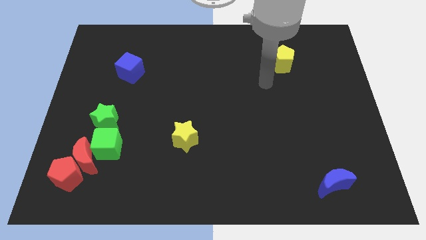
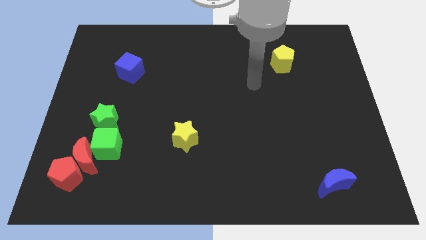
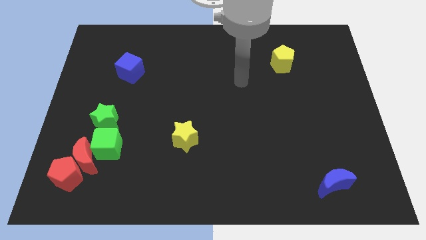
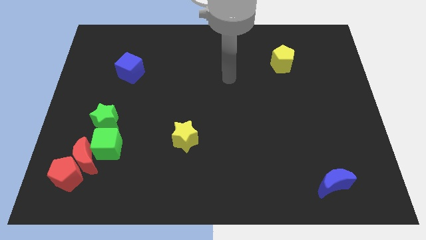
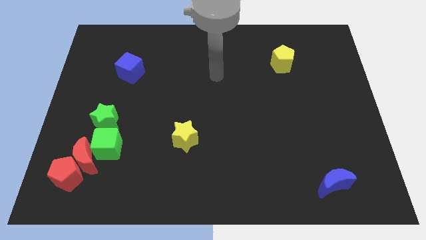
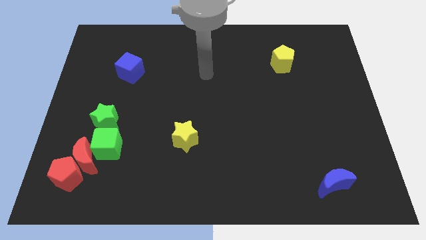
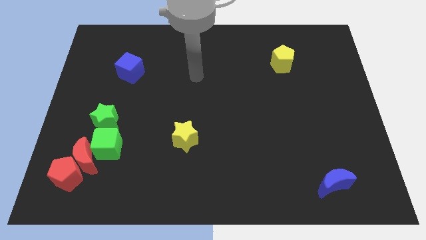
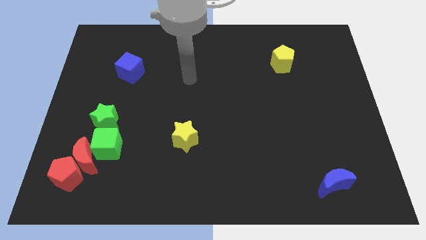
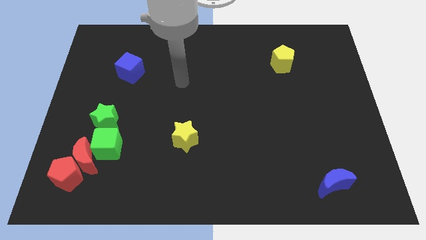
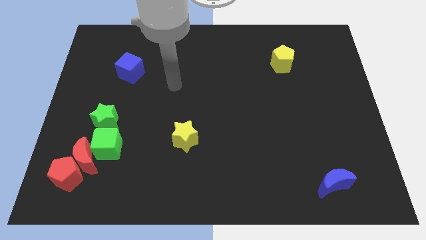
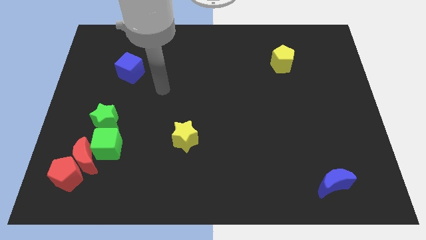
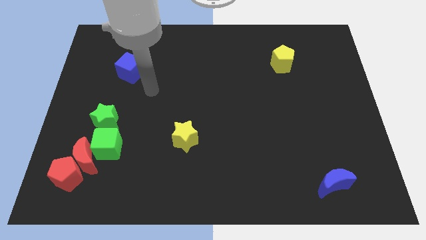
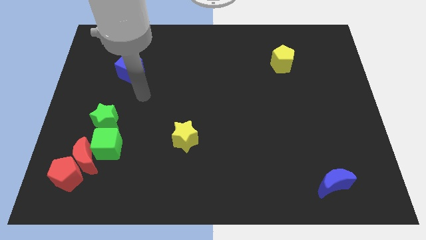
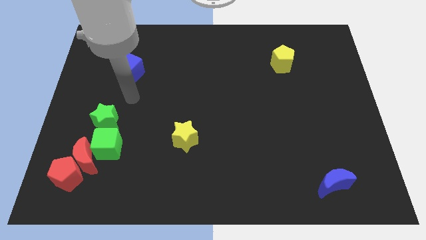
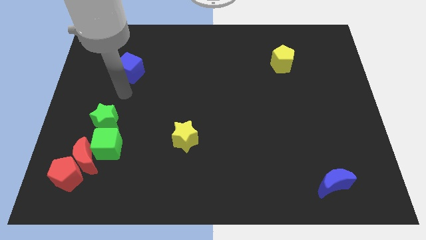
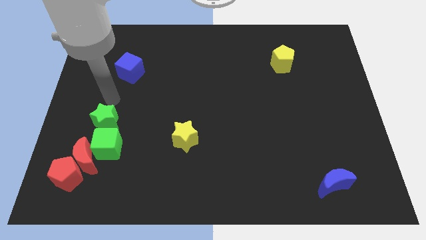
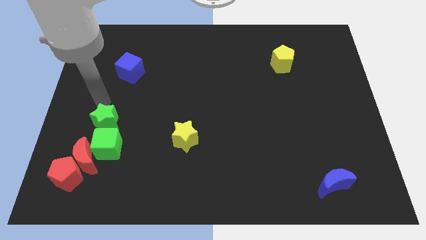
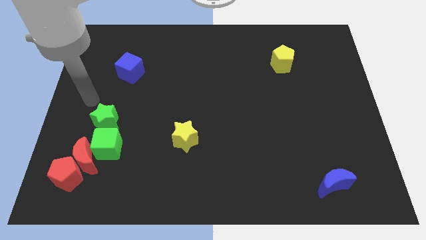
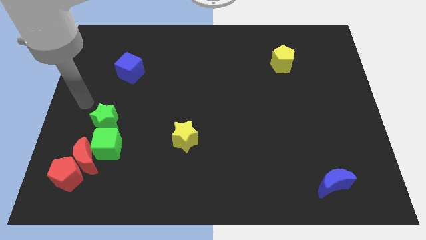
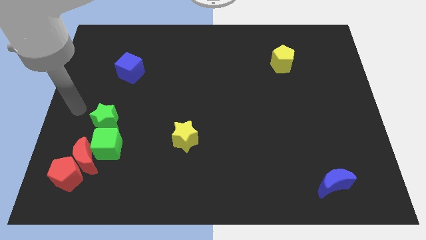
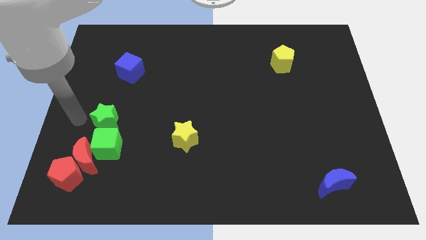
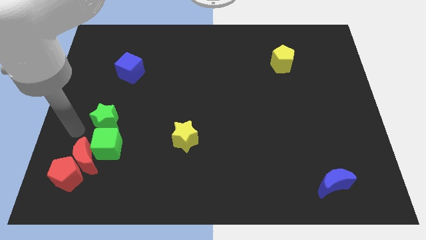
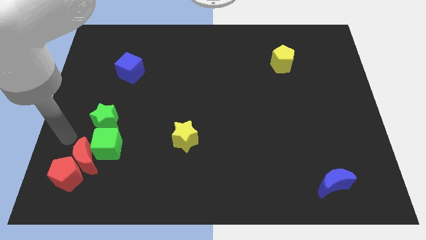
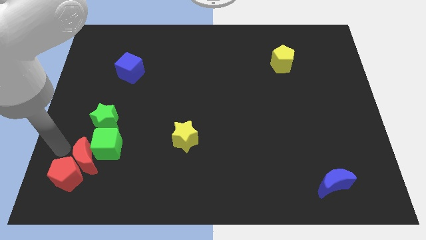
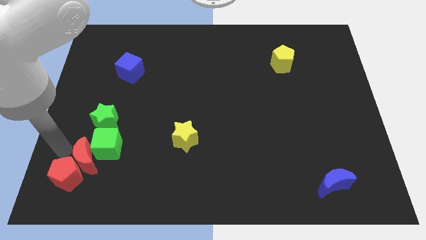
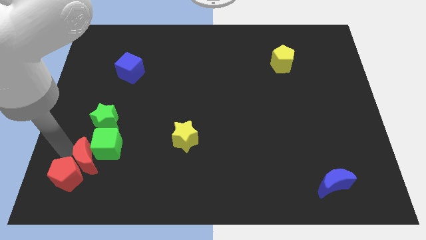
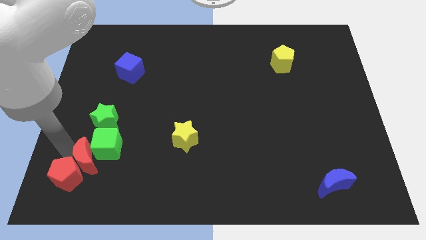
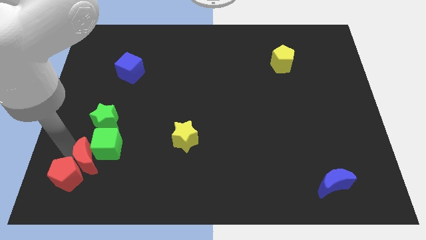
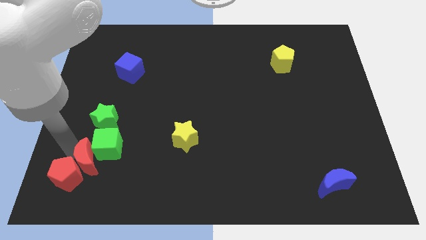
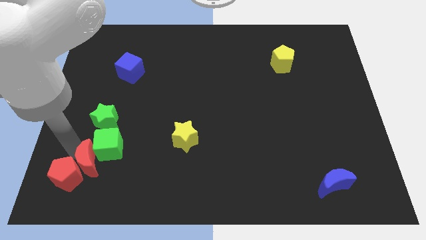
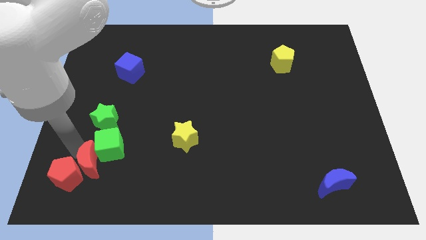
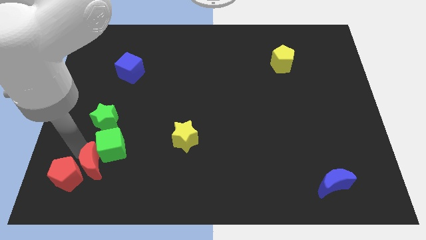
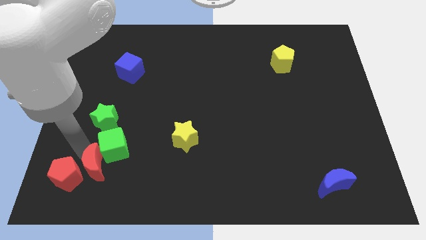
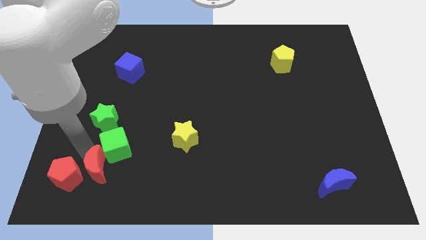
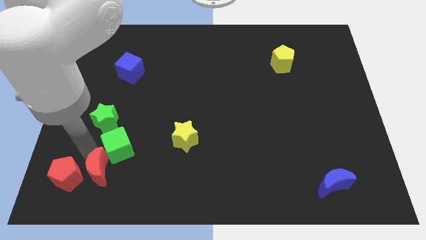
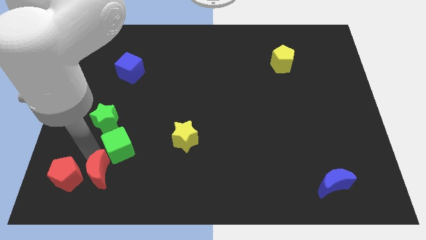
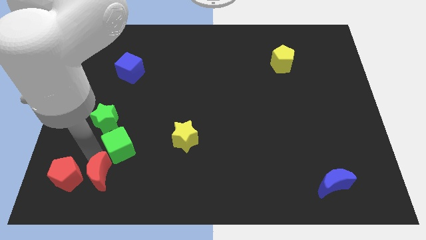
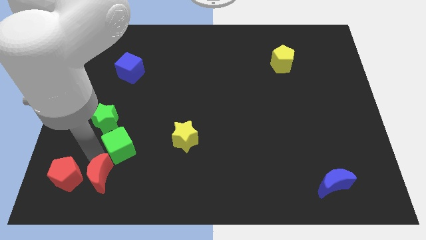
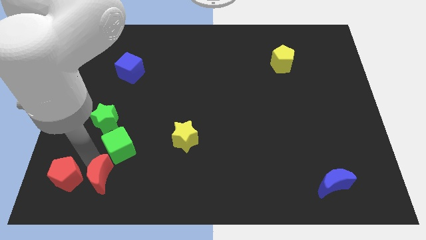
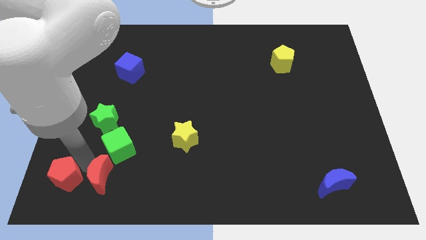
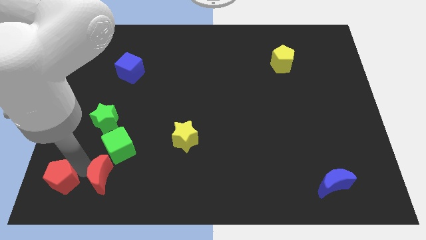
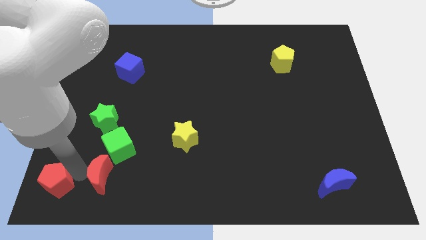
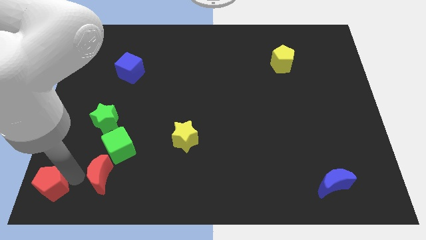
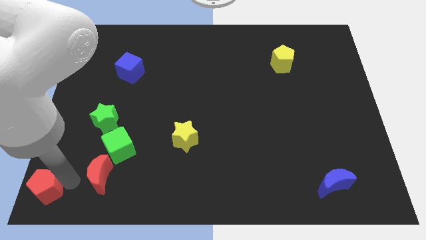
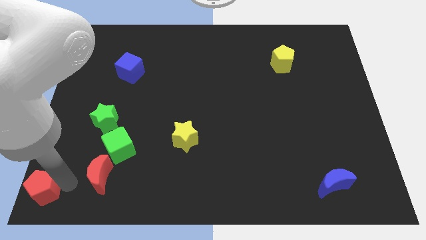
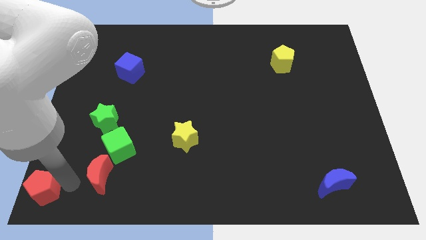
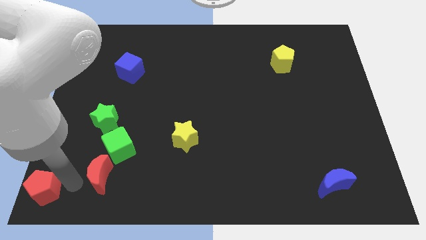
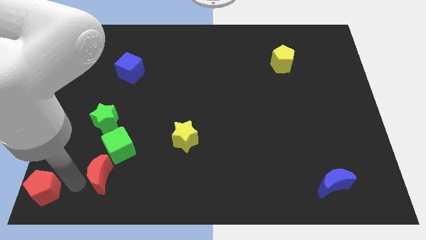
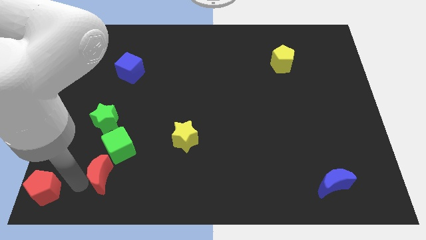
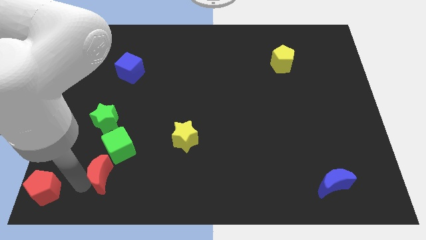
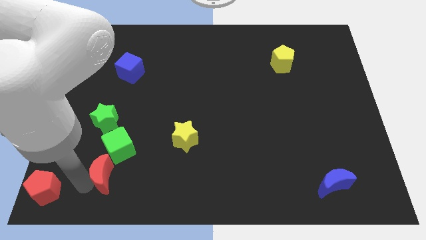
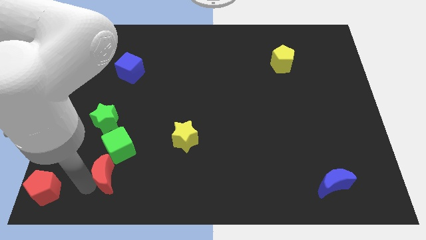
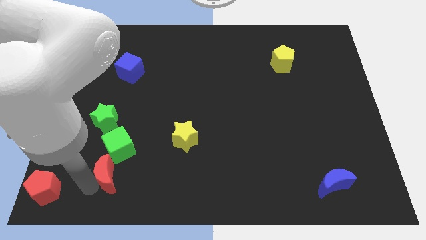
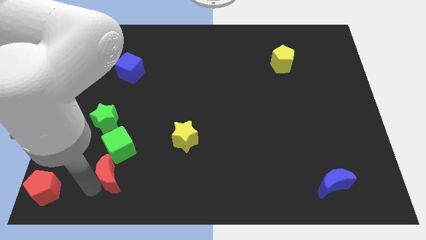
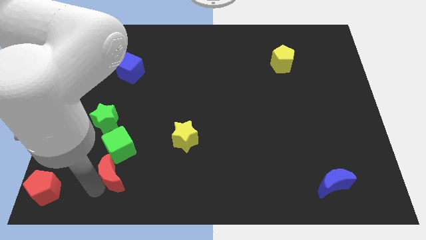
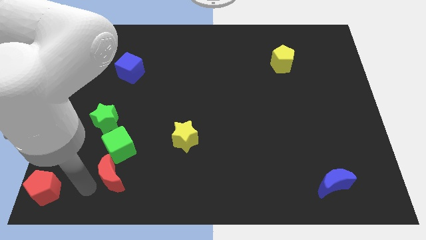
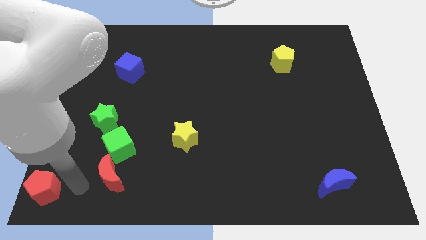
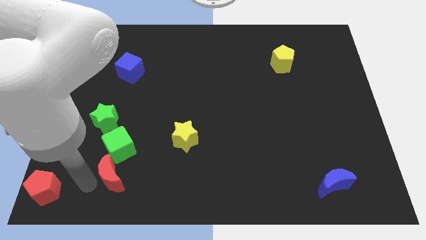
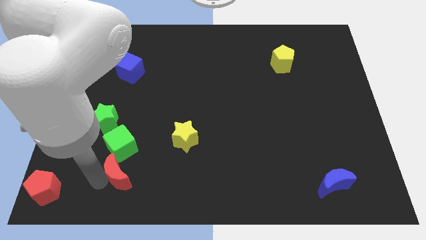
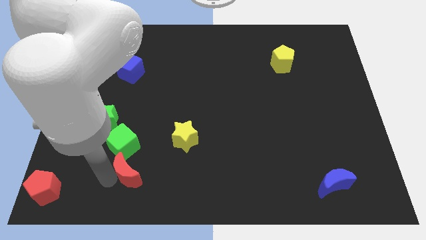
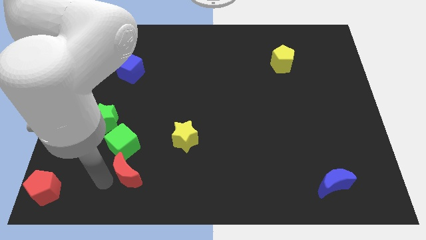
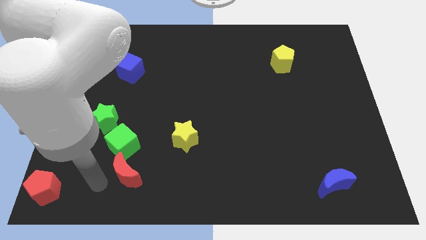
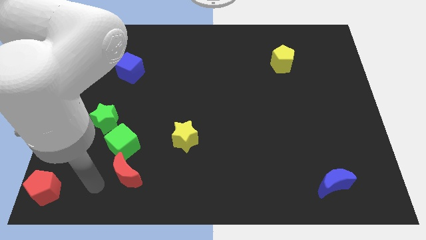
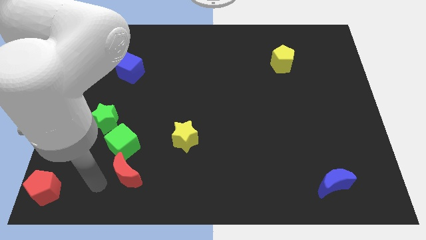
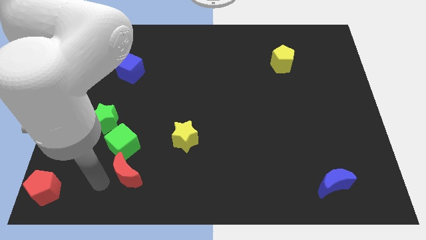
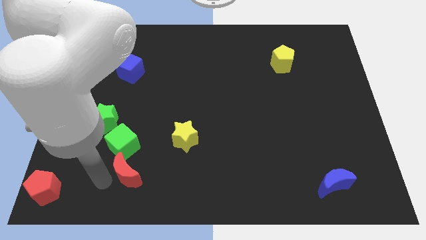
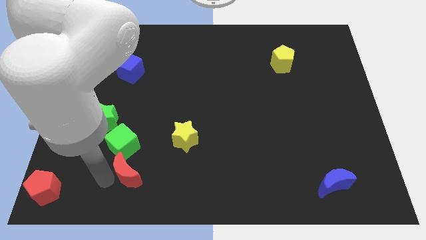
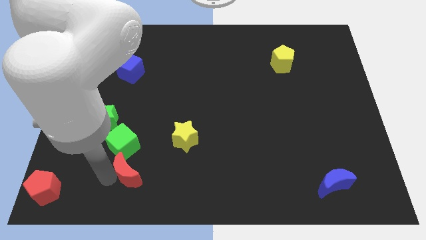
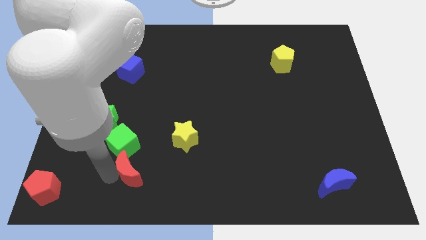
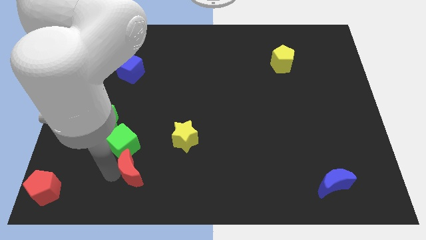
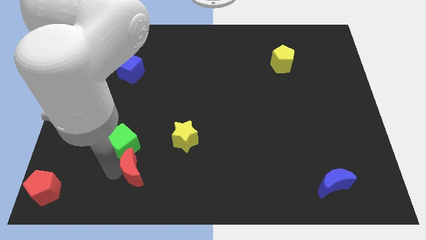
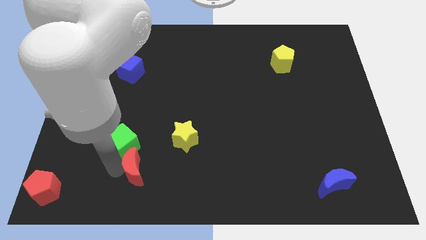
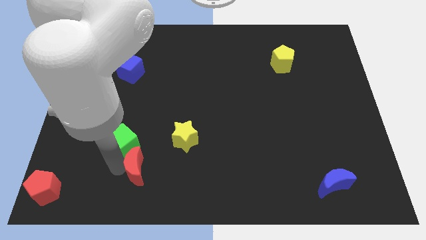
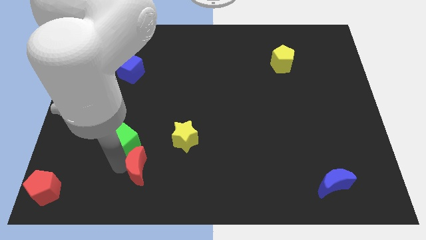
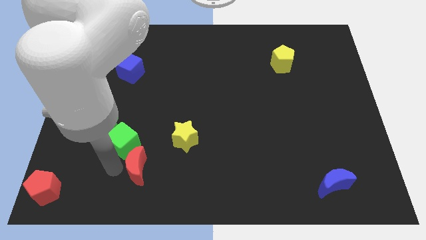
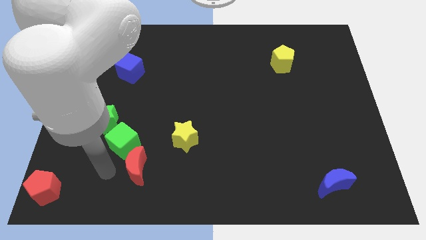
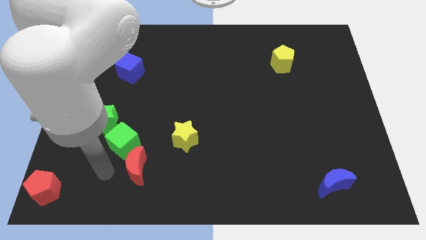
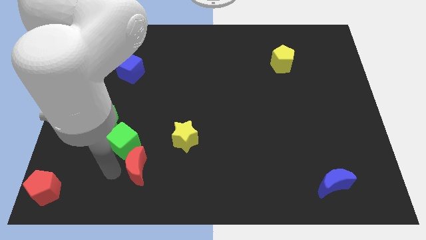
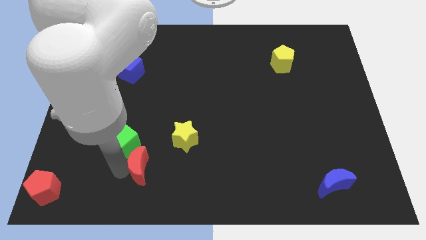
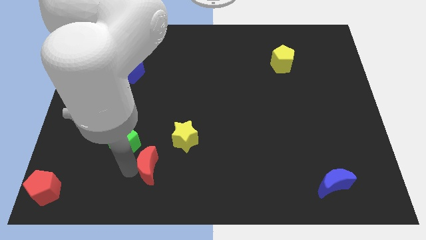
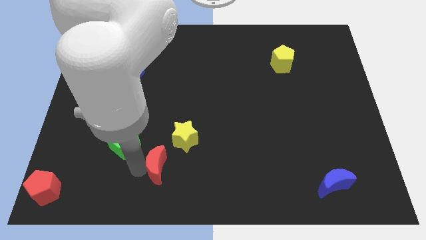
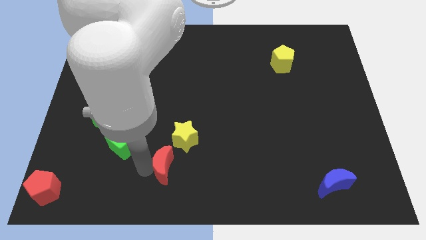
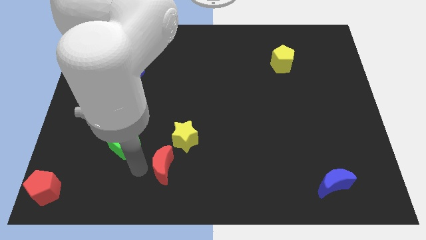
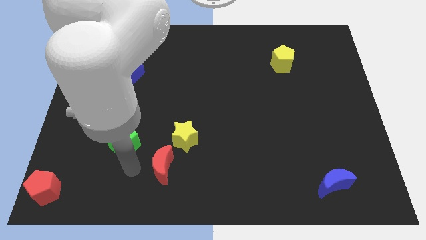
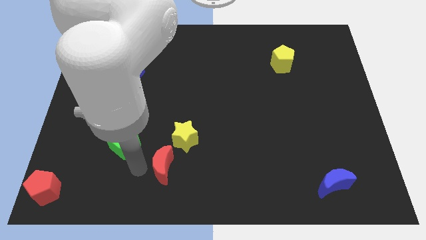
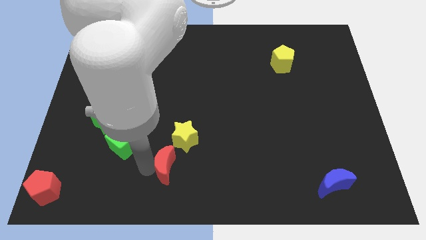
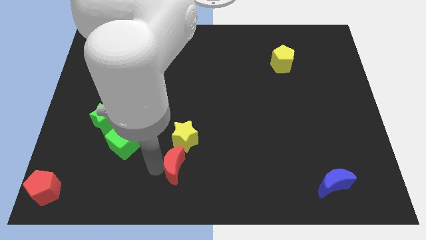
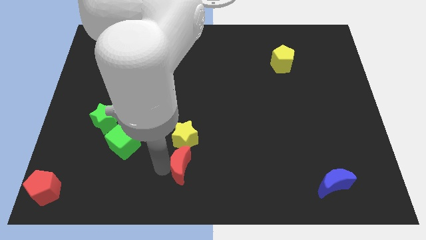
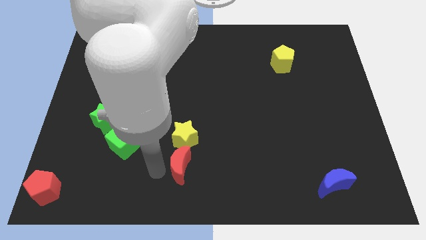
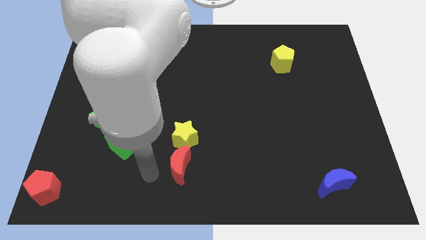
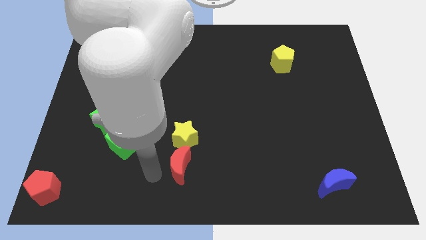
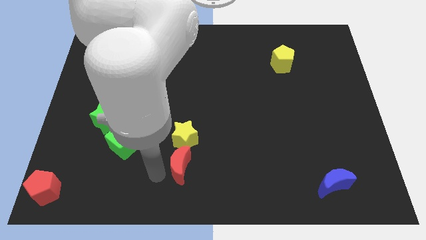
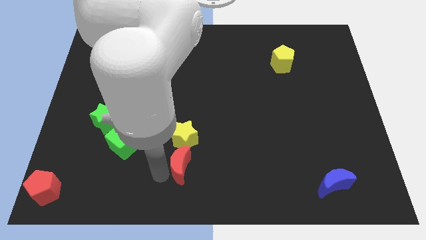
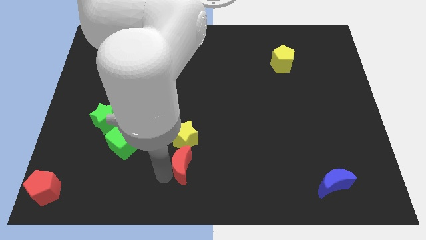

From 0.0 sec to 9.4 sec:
move the red moon to the bottom right side of the yellow star
